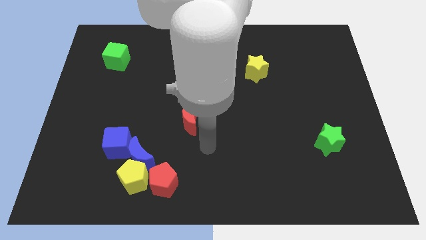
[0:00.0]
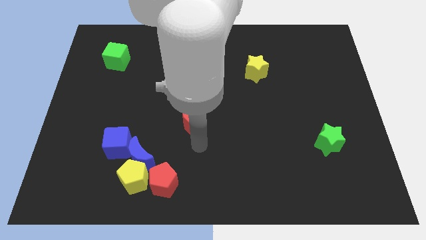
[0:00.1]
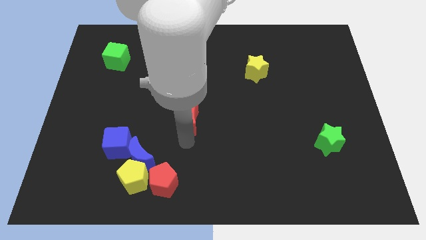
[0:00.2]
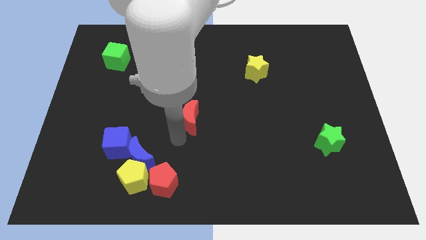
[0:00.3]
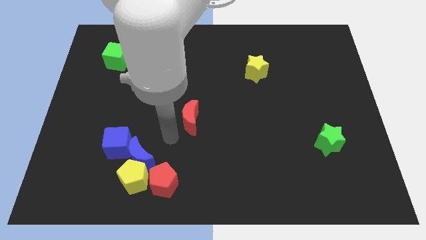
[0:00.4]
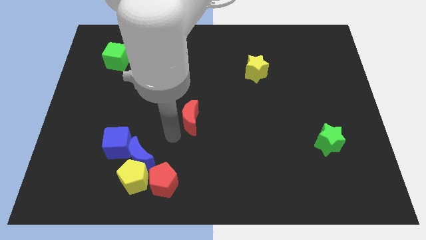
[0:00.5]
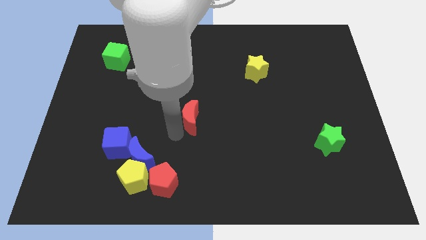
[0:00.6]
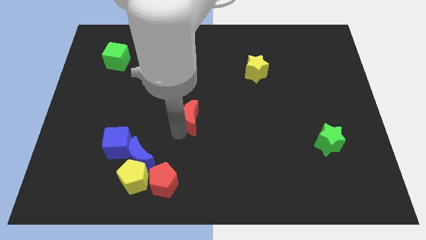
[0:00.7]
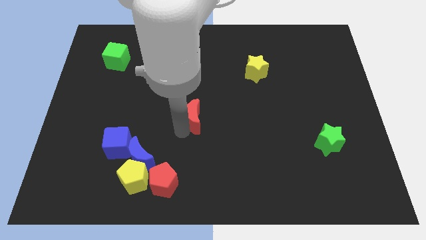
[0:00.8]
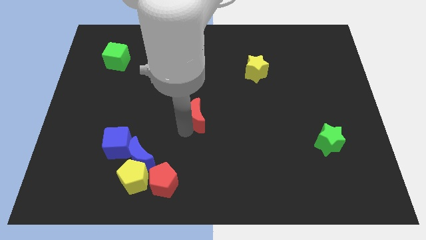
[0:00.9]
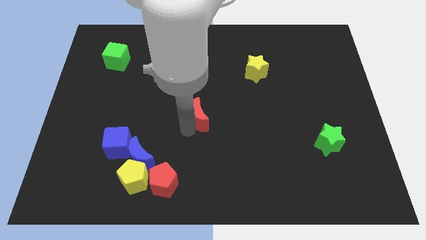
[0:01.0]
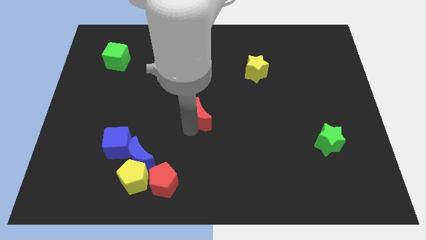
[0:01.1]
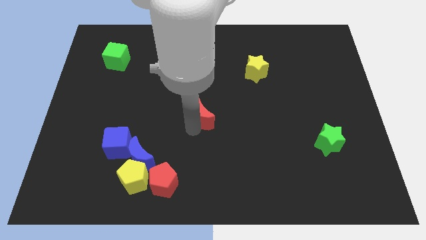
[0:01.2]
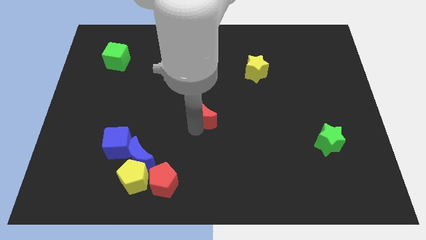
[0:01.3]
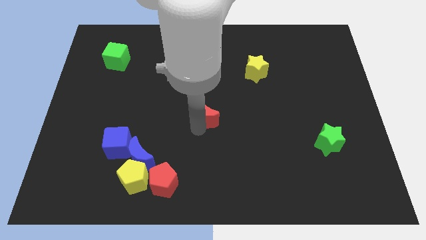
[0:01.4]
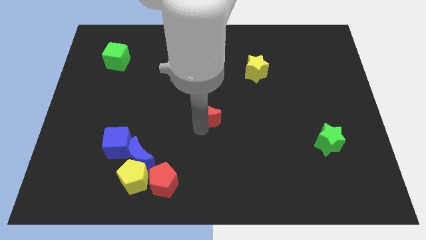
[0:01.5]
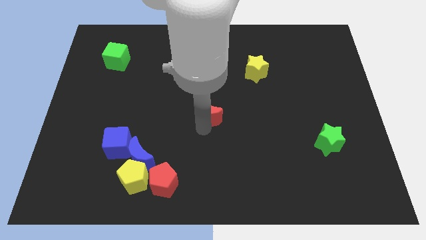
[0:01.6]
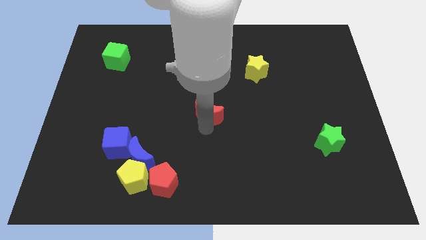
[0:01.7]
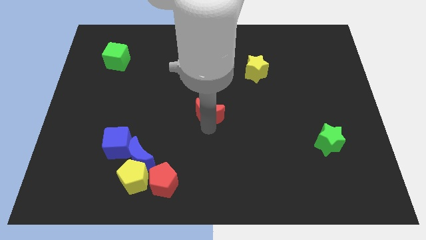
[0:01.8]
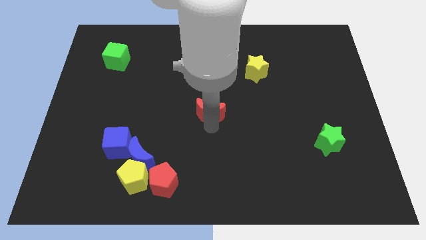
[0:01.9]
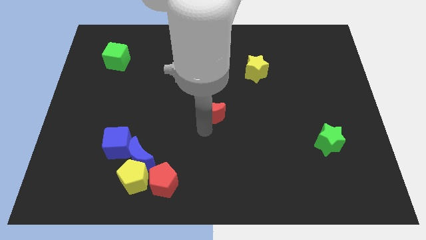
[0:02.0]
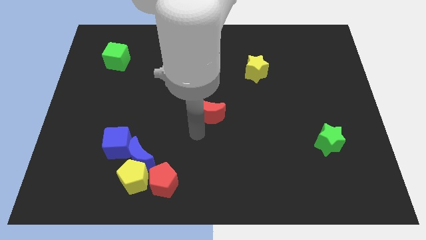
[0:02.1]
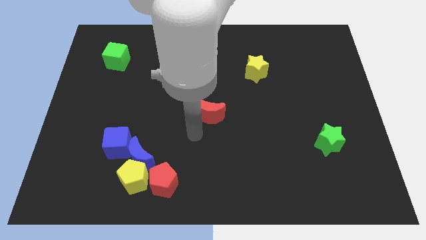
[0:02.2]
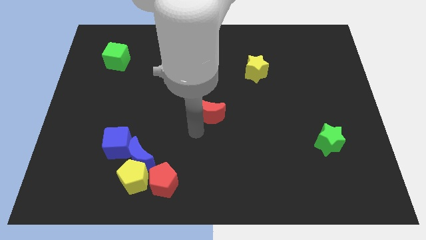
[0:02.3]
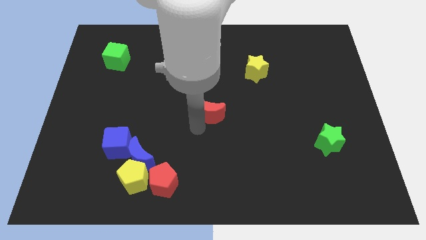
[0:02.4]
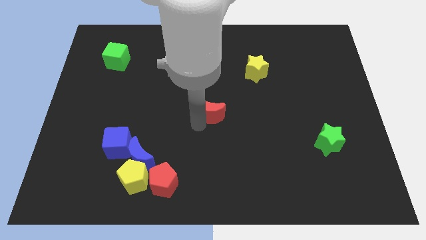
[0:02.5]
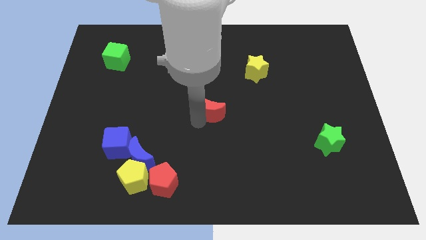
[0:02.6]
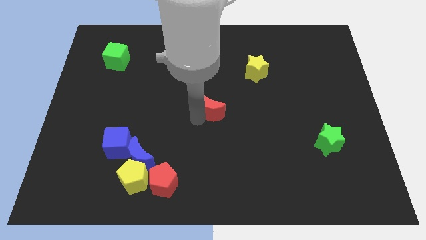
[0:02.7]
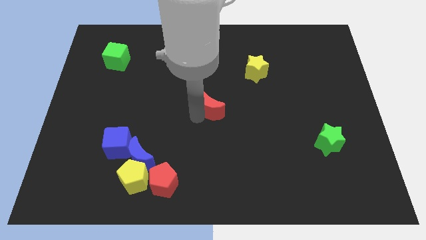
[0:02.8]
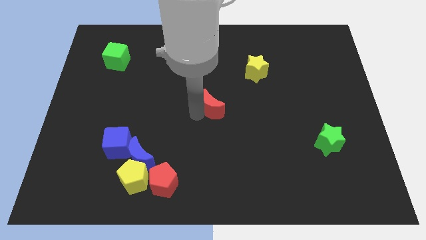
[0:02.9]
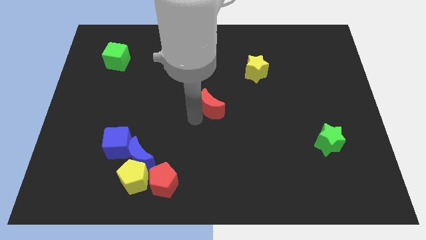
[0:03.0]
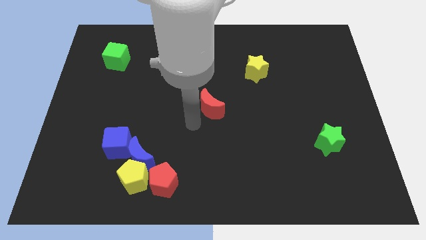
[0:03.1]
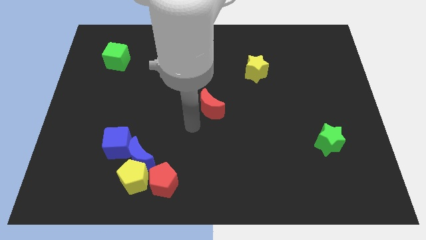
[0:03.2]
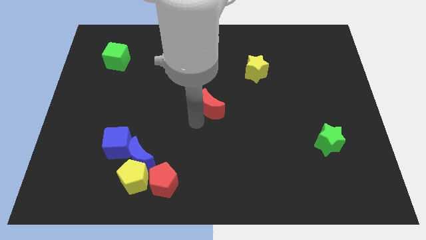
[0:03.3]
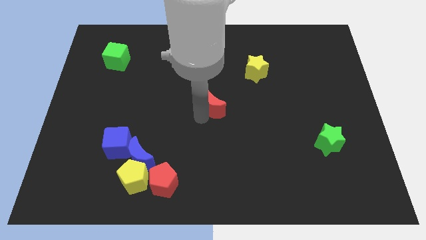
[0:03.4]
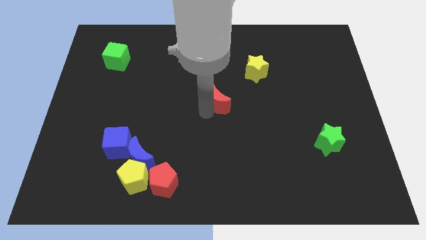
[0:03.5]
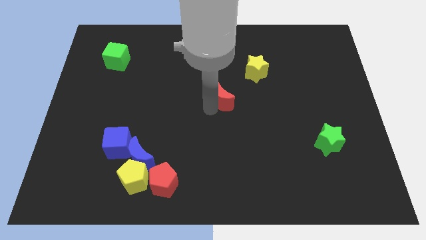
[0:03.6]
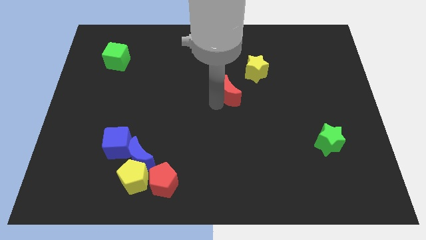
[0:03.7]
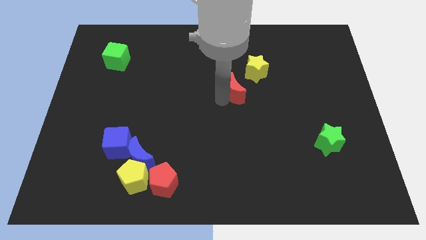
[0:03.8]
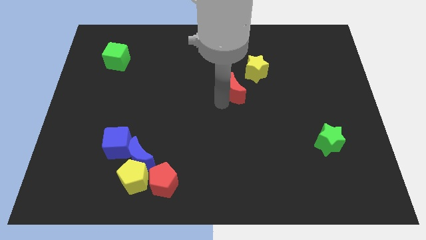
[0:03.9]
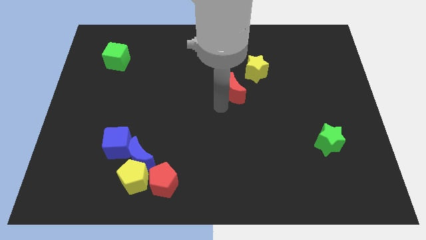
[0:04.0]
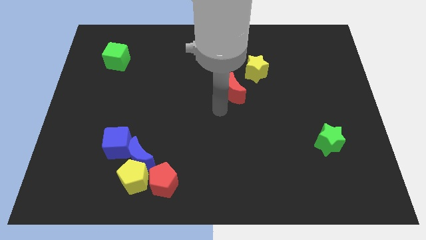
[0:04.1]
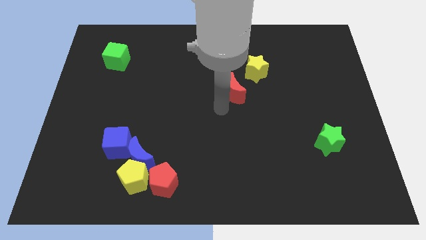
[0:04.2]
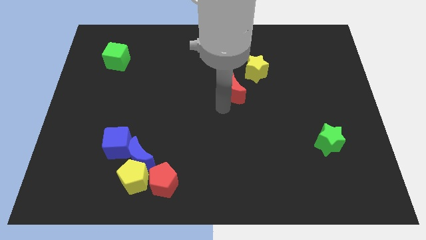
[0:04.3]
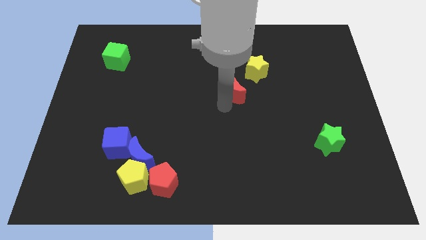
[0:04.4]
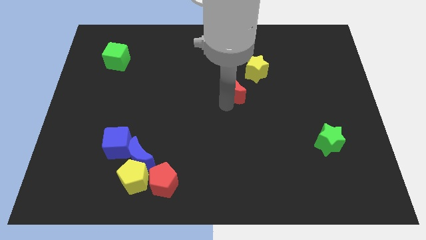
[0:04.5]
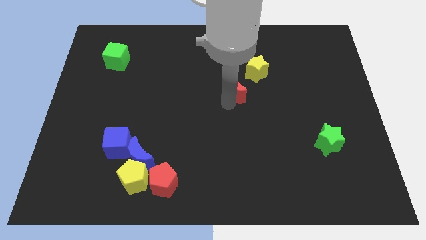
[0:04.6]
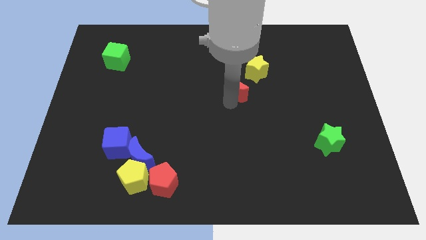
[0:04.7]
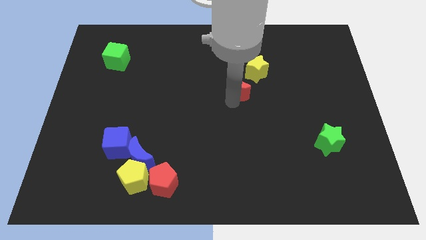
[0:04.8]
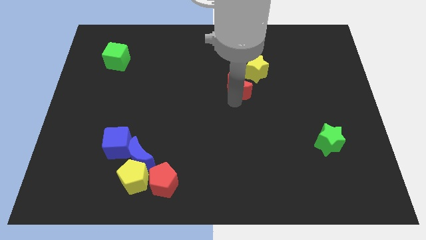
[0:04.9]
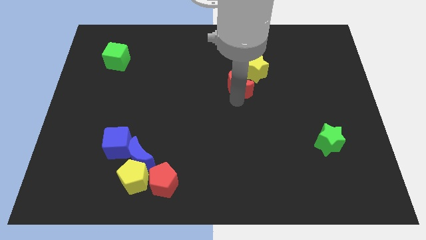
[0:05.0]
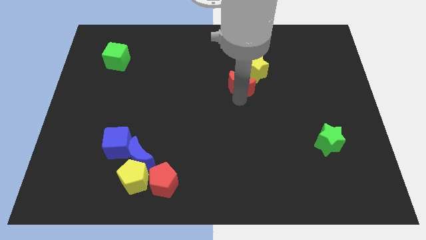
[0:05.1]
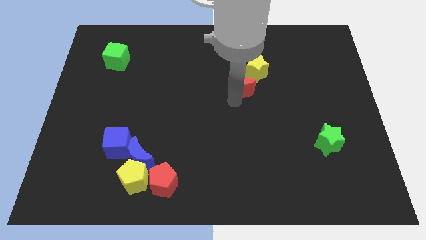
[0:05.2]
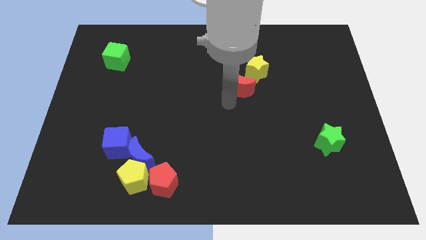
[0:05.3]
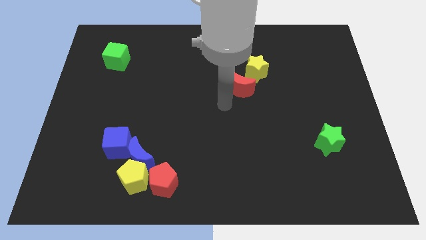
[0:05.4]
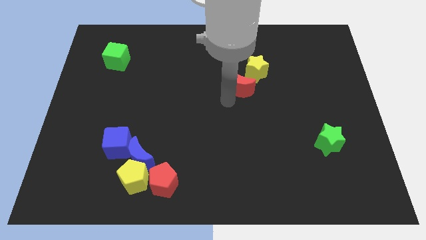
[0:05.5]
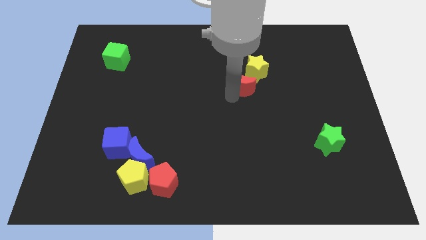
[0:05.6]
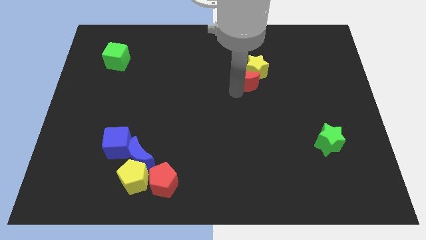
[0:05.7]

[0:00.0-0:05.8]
move the red moon close to the yellow star

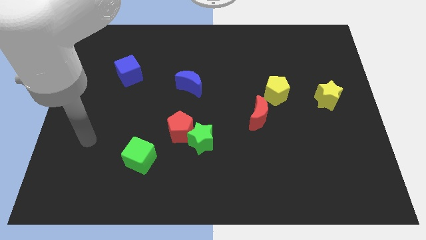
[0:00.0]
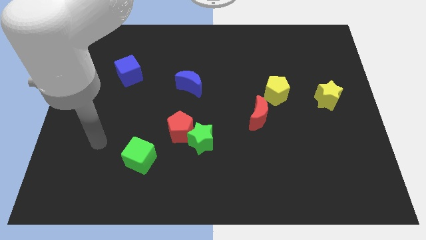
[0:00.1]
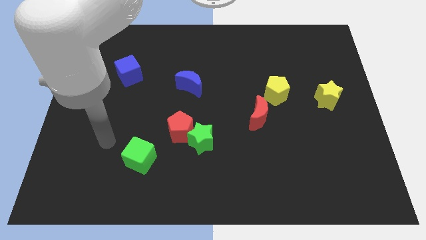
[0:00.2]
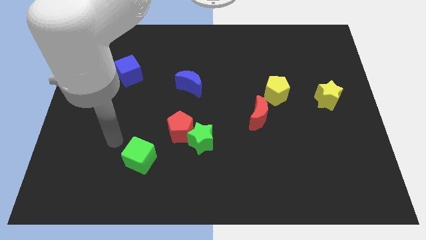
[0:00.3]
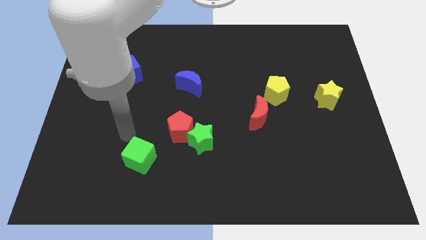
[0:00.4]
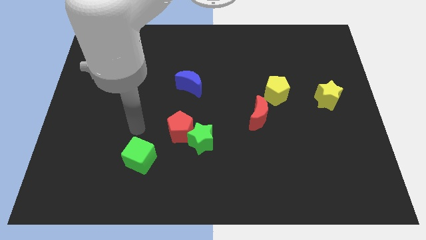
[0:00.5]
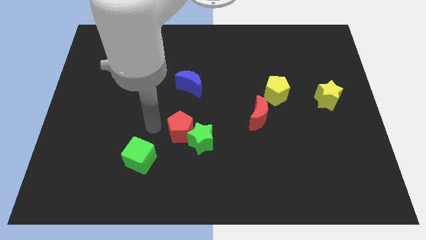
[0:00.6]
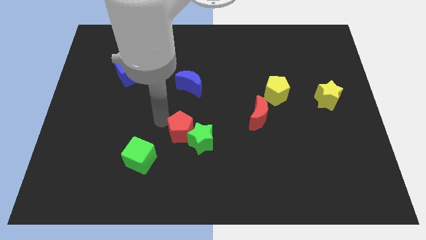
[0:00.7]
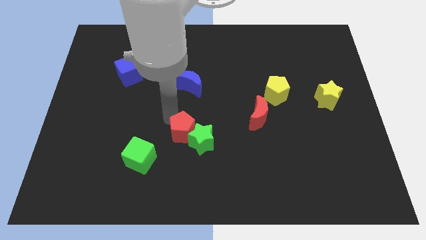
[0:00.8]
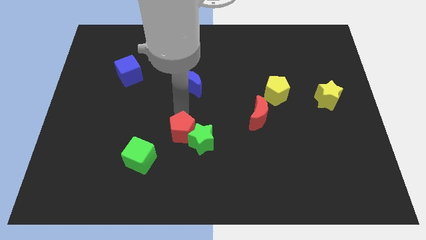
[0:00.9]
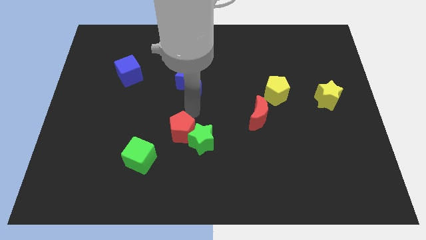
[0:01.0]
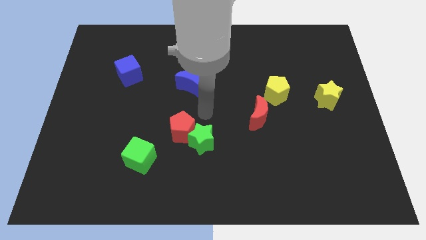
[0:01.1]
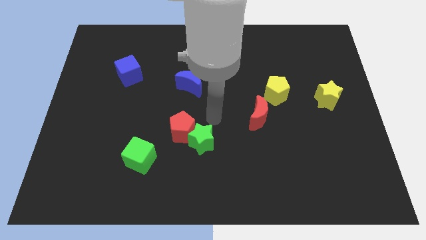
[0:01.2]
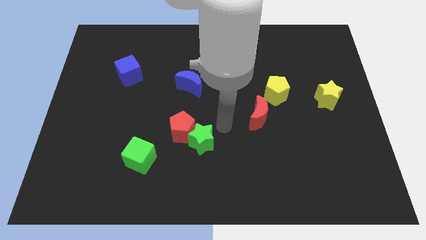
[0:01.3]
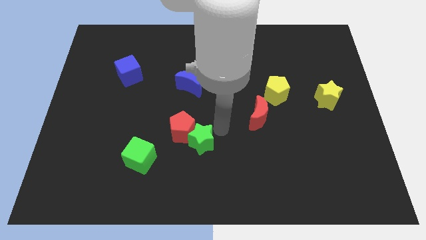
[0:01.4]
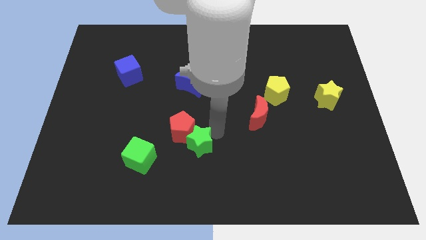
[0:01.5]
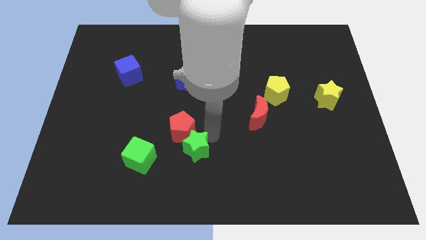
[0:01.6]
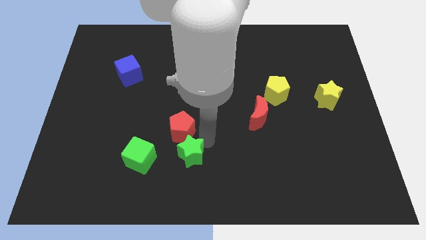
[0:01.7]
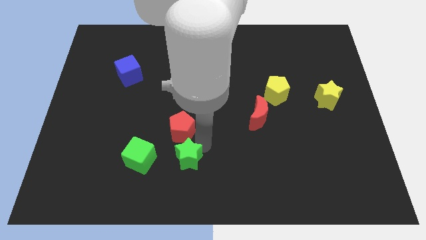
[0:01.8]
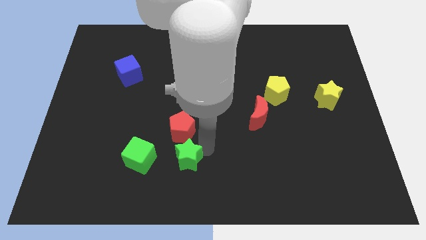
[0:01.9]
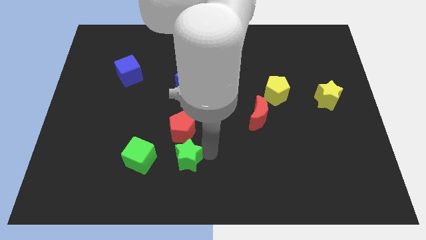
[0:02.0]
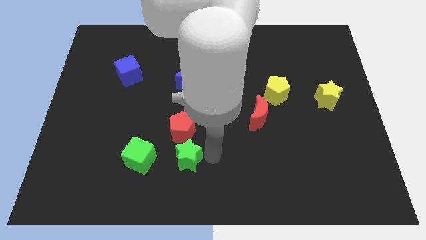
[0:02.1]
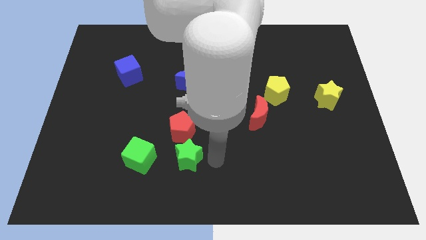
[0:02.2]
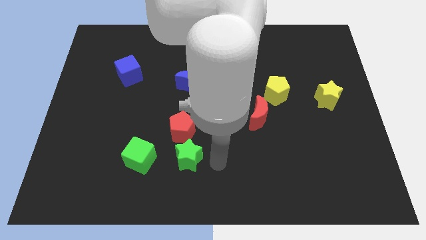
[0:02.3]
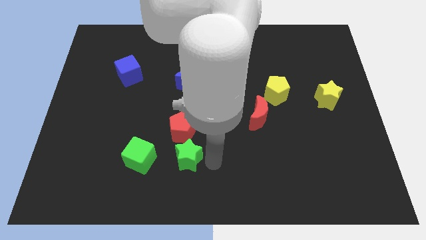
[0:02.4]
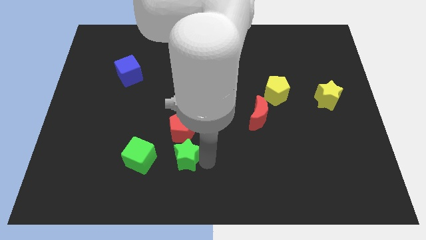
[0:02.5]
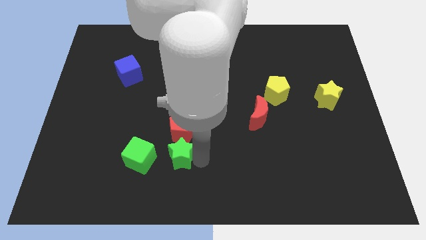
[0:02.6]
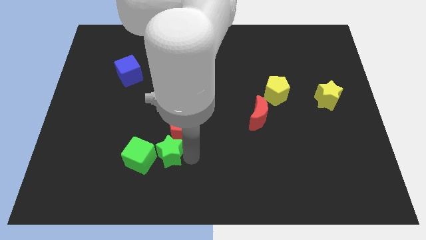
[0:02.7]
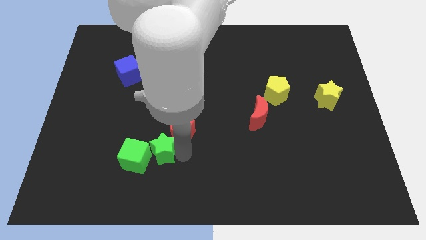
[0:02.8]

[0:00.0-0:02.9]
push the green star next to the green cube
